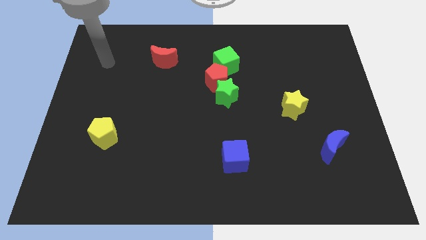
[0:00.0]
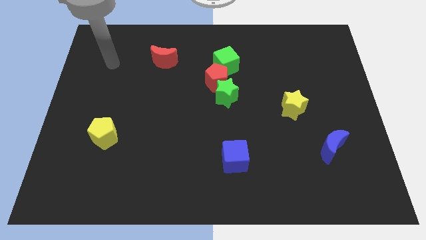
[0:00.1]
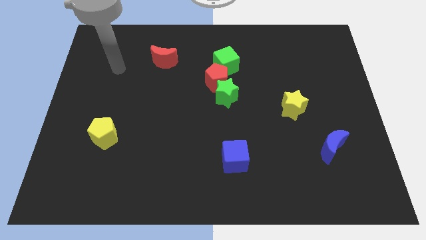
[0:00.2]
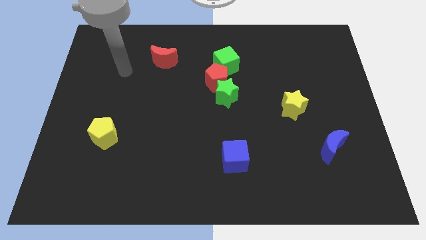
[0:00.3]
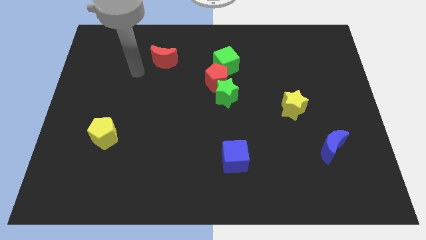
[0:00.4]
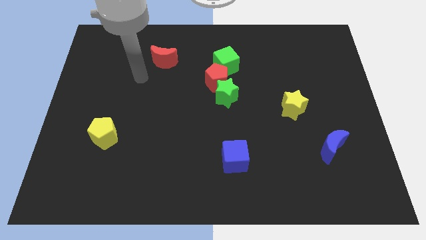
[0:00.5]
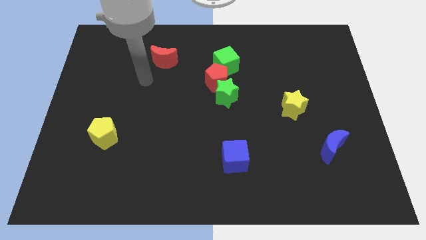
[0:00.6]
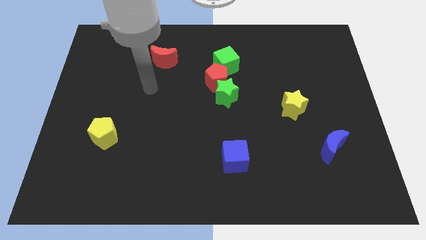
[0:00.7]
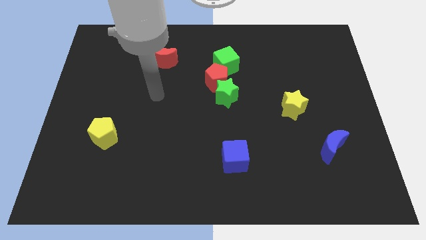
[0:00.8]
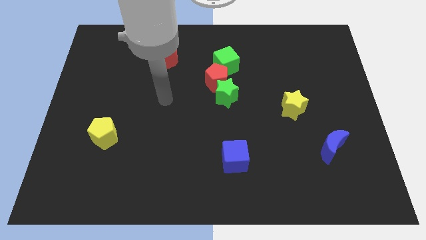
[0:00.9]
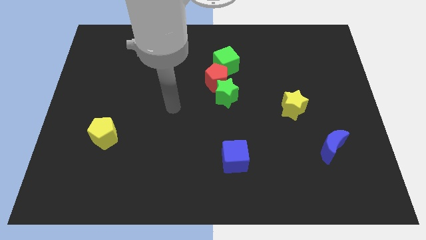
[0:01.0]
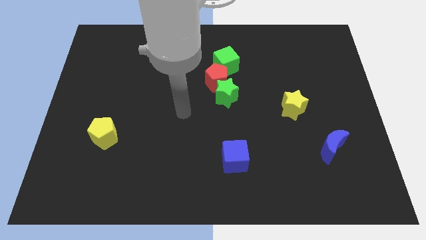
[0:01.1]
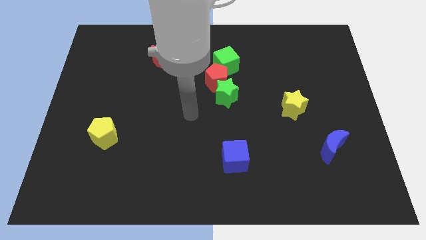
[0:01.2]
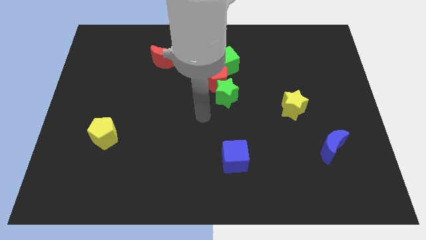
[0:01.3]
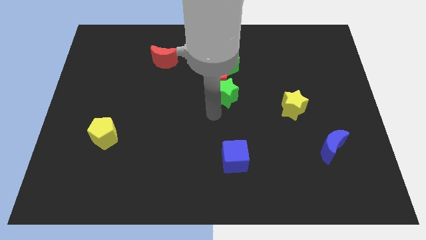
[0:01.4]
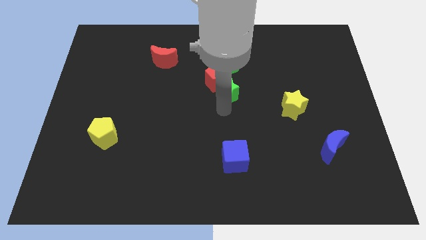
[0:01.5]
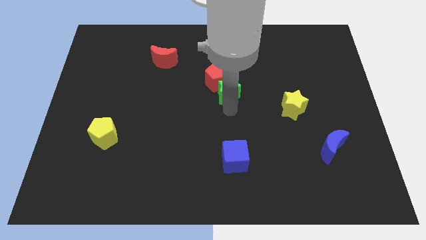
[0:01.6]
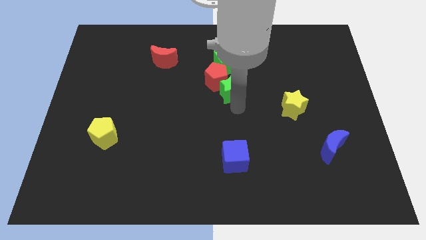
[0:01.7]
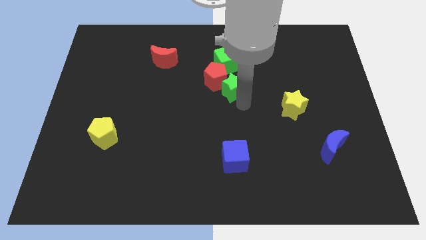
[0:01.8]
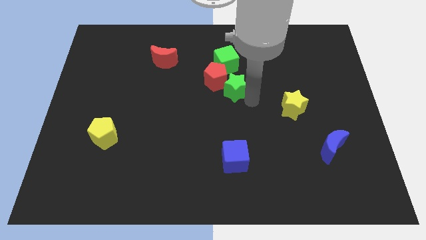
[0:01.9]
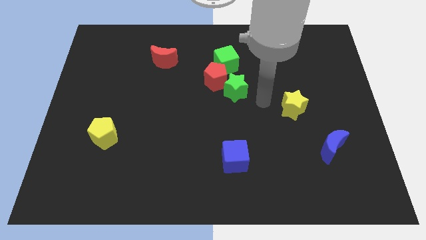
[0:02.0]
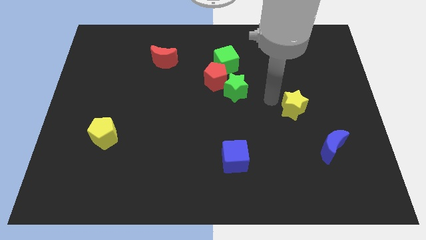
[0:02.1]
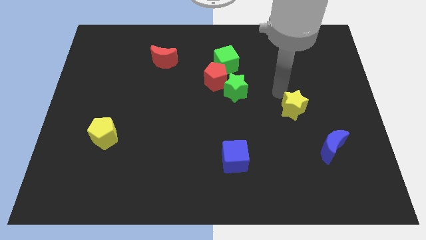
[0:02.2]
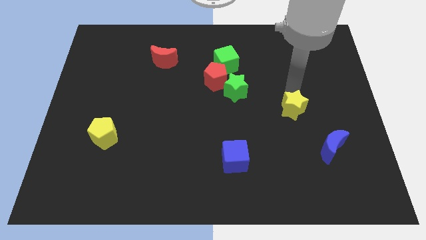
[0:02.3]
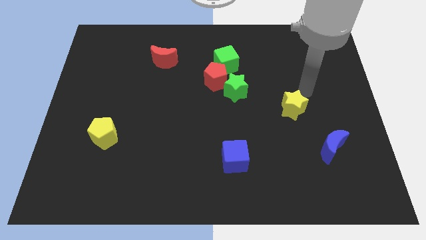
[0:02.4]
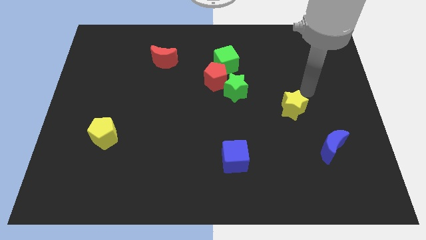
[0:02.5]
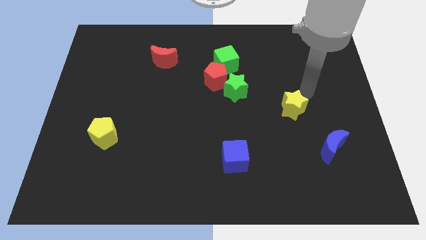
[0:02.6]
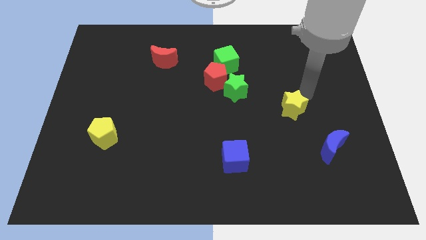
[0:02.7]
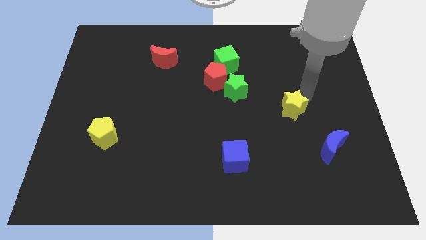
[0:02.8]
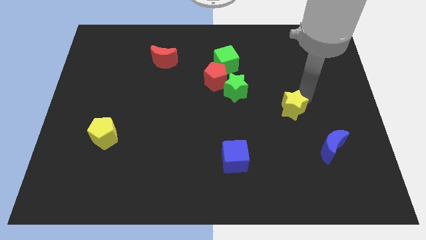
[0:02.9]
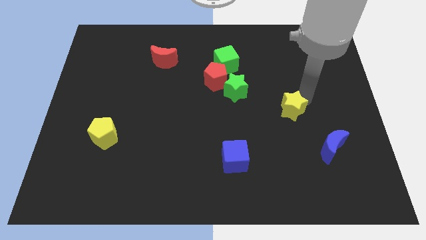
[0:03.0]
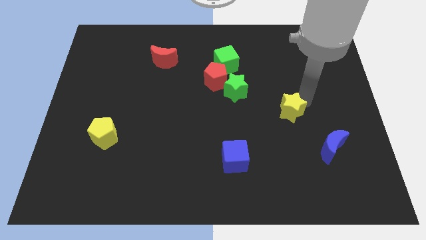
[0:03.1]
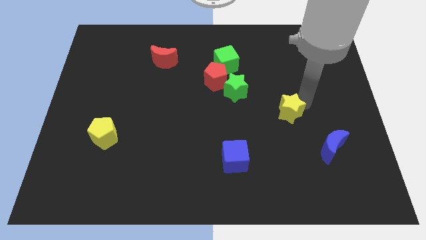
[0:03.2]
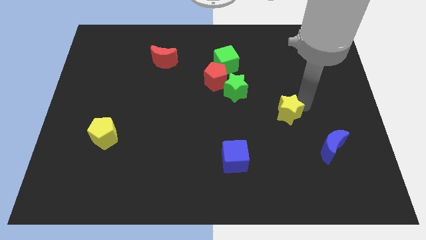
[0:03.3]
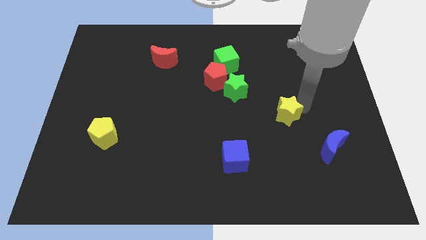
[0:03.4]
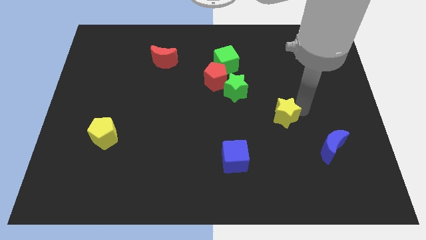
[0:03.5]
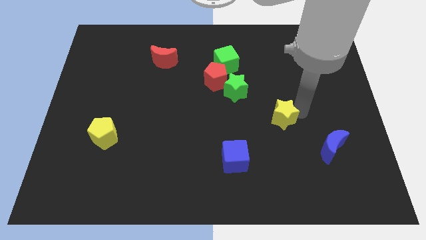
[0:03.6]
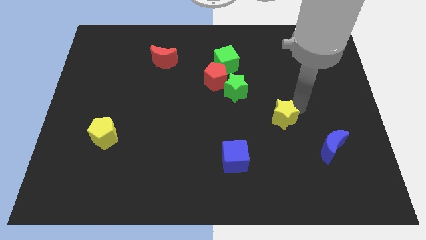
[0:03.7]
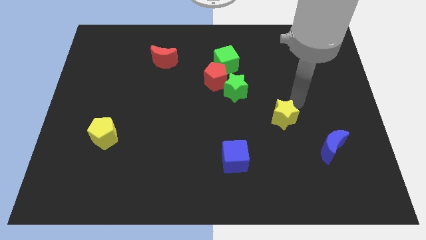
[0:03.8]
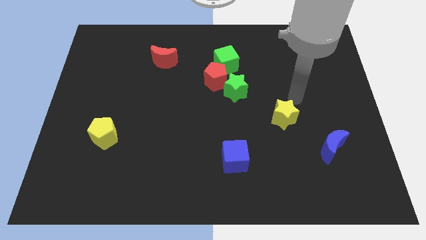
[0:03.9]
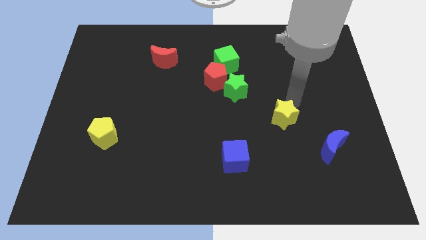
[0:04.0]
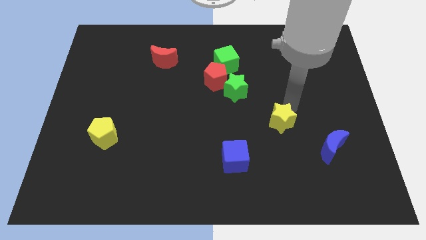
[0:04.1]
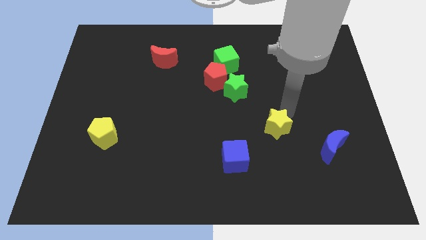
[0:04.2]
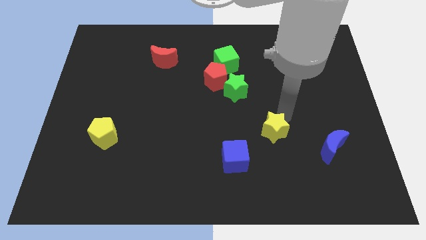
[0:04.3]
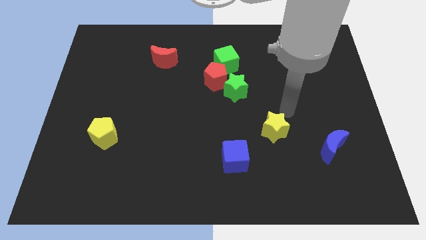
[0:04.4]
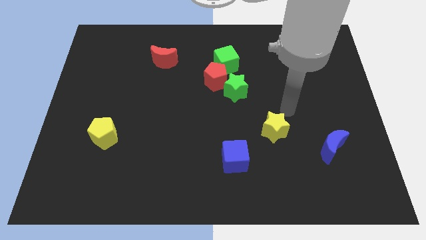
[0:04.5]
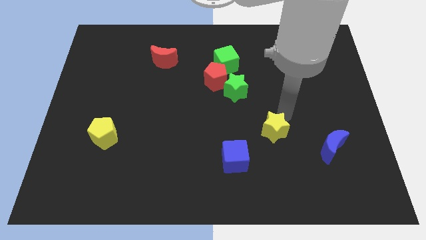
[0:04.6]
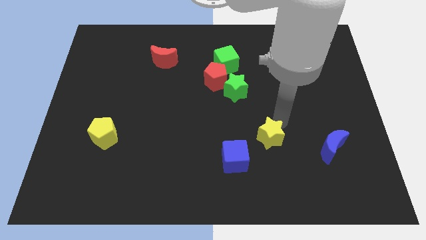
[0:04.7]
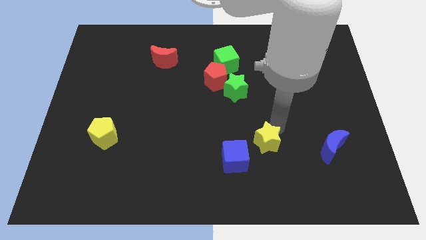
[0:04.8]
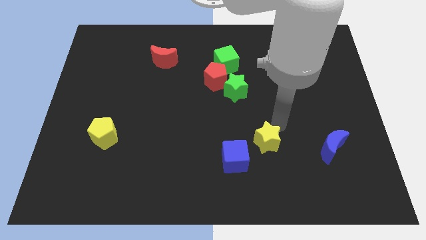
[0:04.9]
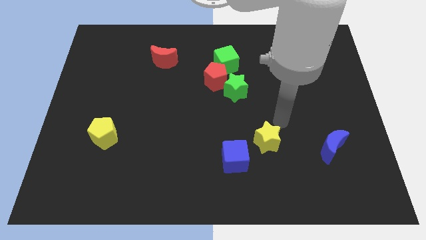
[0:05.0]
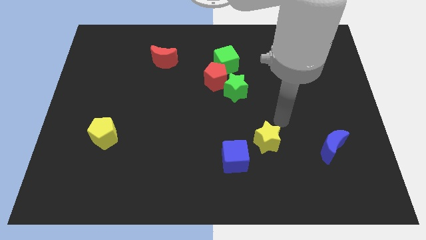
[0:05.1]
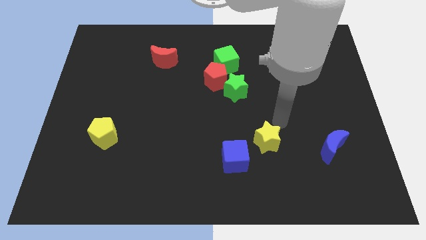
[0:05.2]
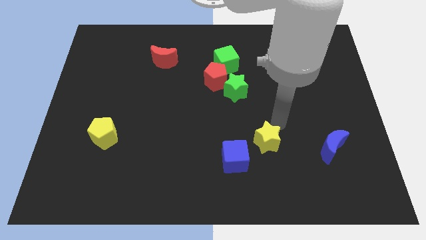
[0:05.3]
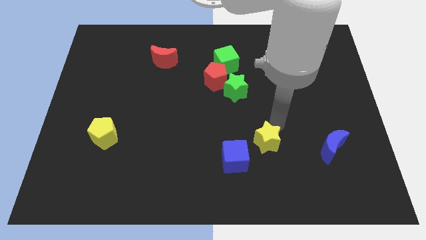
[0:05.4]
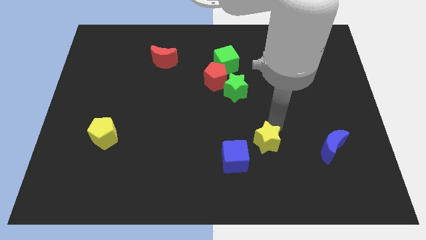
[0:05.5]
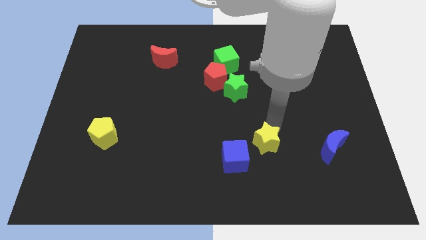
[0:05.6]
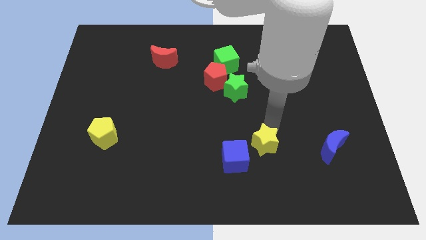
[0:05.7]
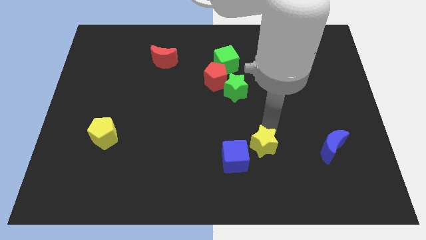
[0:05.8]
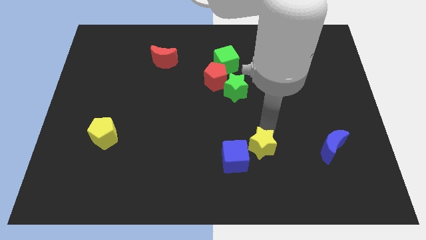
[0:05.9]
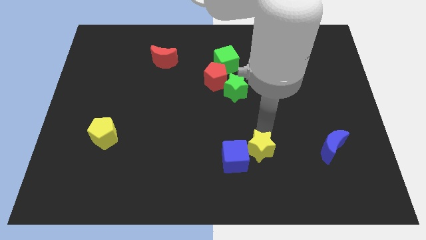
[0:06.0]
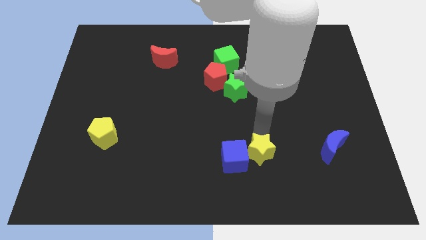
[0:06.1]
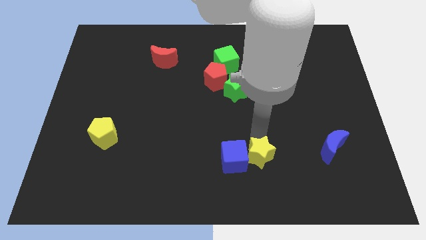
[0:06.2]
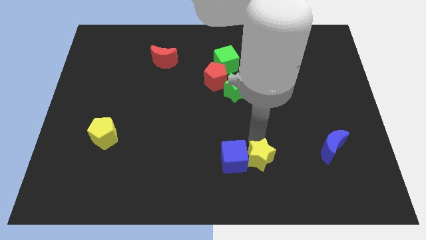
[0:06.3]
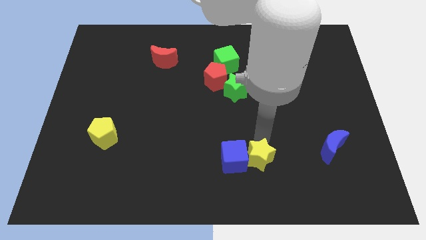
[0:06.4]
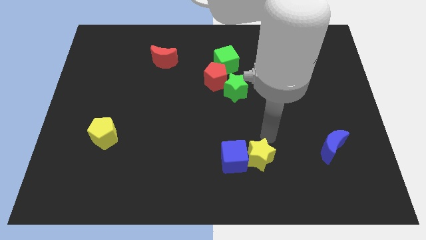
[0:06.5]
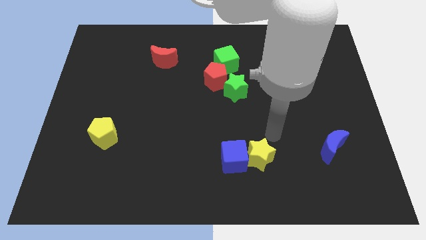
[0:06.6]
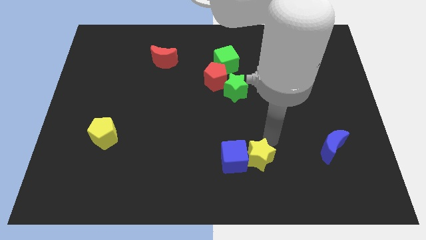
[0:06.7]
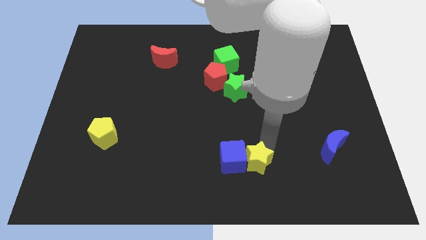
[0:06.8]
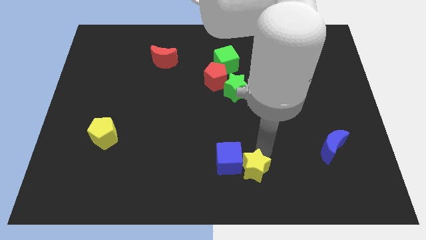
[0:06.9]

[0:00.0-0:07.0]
put the yellow star to the bottom side
